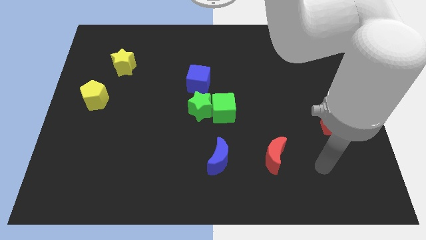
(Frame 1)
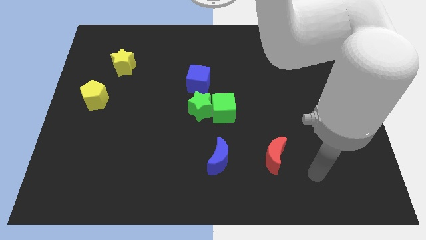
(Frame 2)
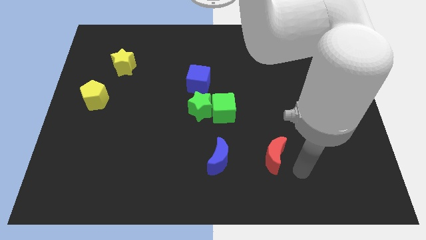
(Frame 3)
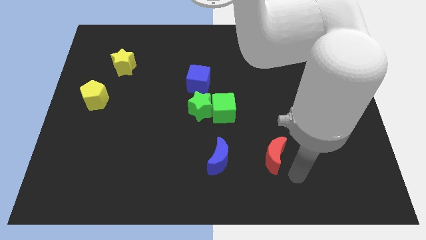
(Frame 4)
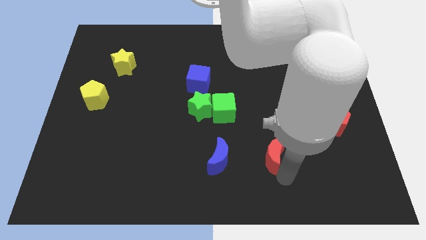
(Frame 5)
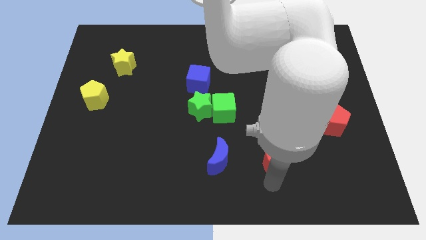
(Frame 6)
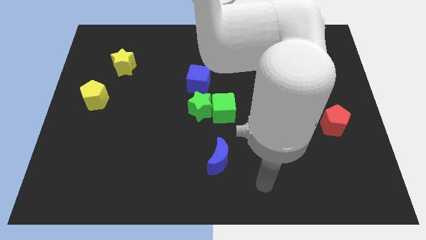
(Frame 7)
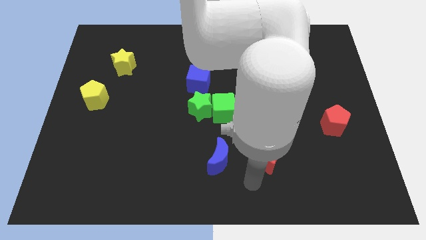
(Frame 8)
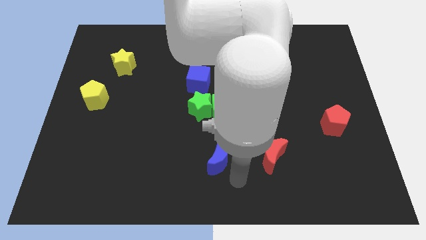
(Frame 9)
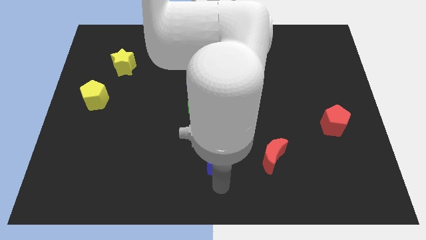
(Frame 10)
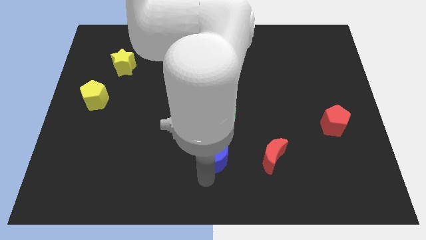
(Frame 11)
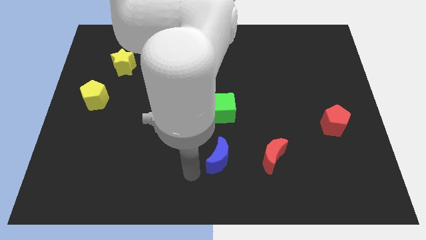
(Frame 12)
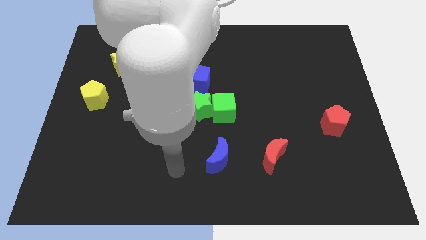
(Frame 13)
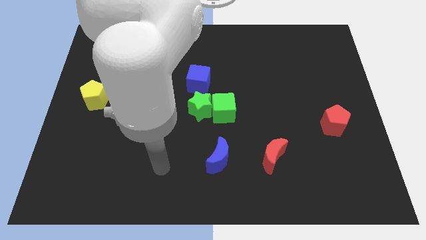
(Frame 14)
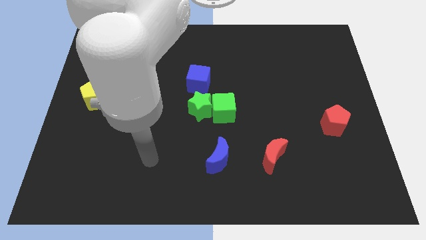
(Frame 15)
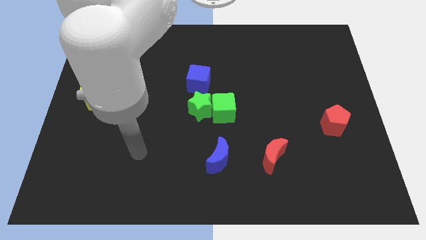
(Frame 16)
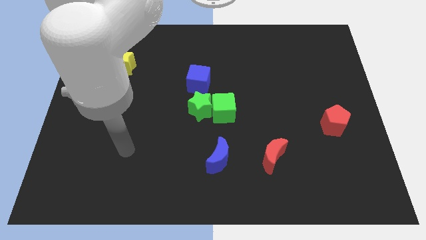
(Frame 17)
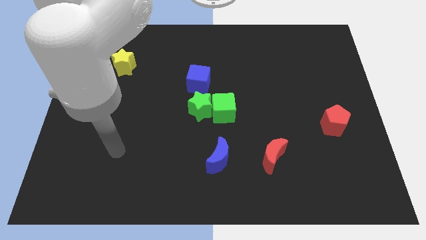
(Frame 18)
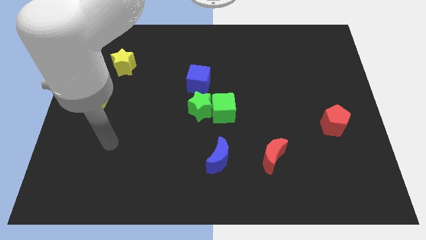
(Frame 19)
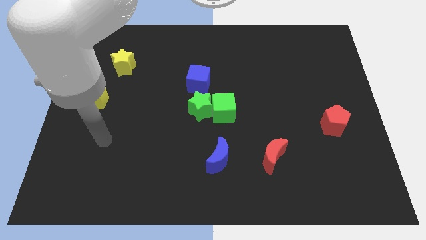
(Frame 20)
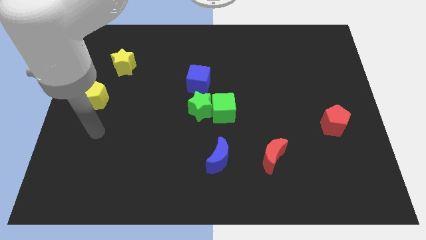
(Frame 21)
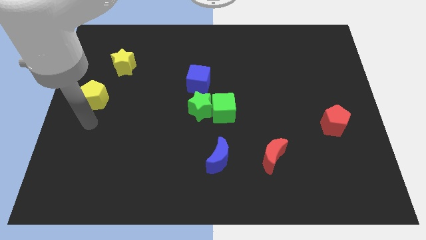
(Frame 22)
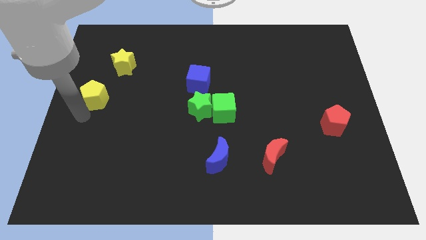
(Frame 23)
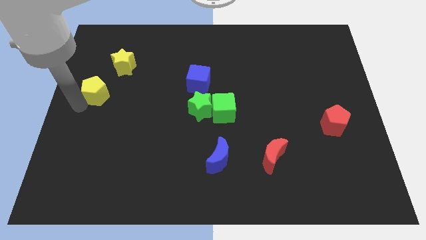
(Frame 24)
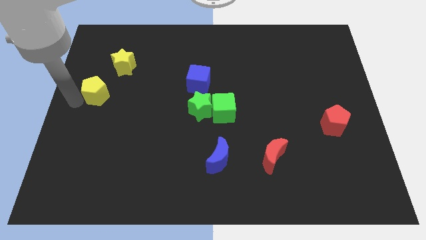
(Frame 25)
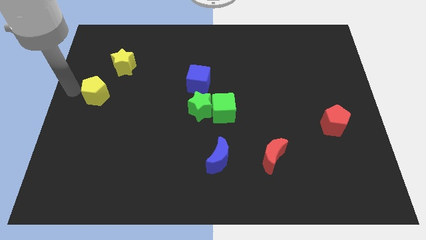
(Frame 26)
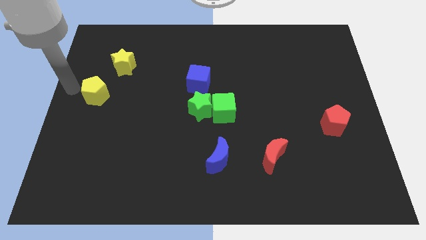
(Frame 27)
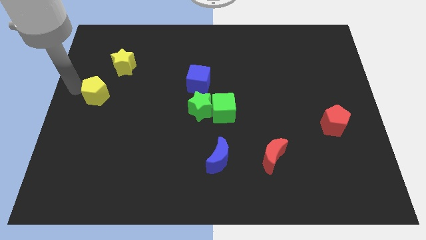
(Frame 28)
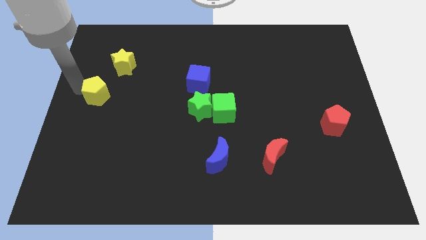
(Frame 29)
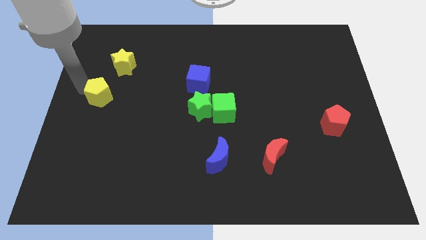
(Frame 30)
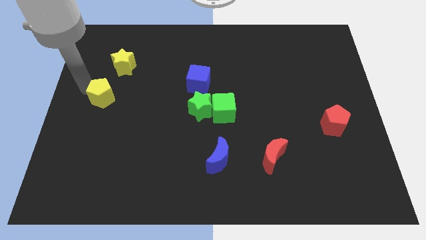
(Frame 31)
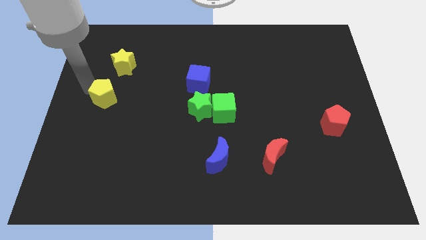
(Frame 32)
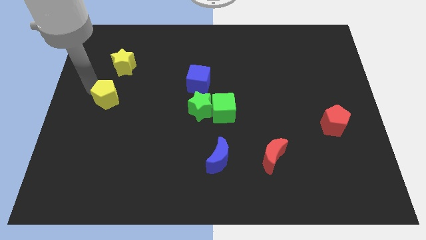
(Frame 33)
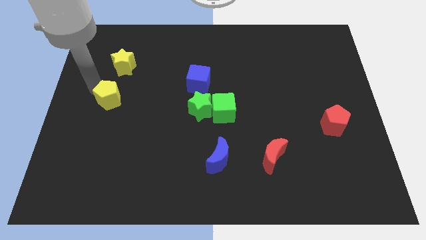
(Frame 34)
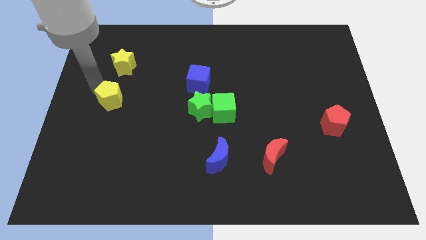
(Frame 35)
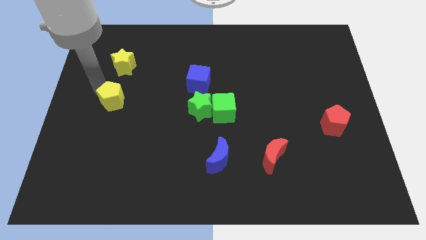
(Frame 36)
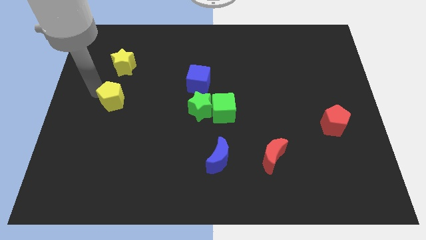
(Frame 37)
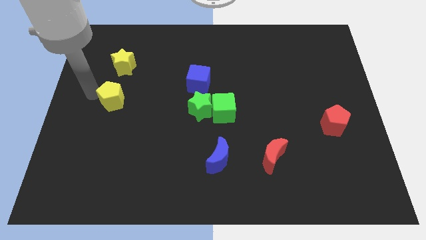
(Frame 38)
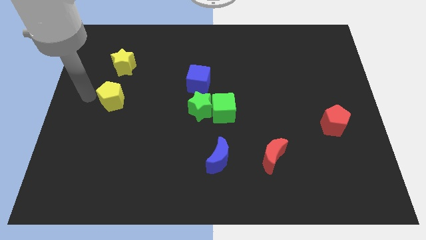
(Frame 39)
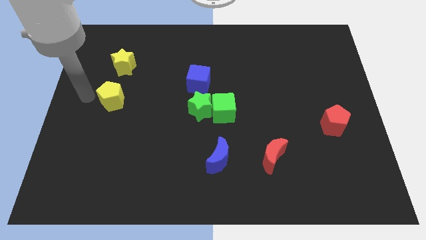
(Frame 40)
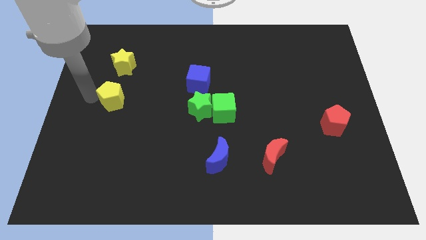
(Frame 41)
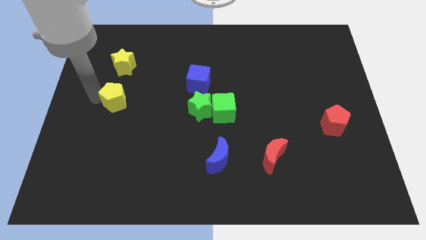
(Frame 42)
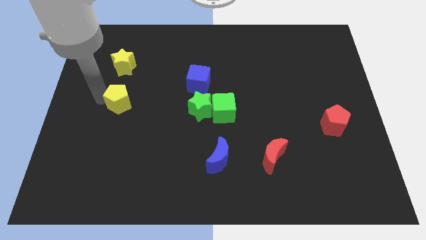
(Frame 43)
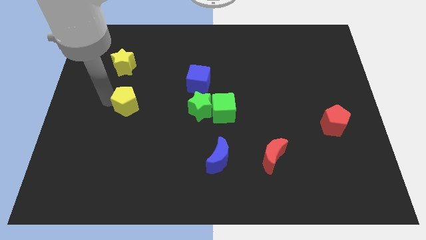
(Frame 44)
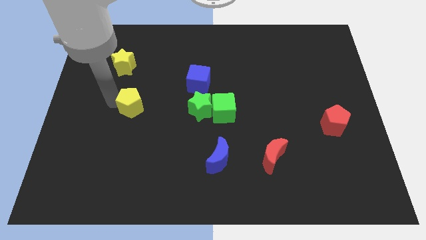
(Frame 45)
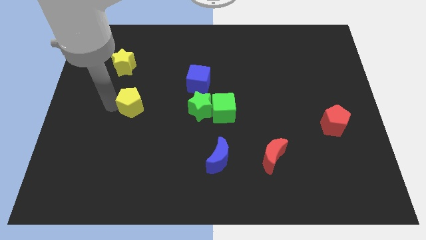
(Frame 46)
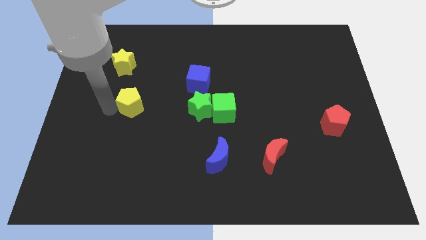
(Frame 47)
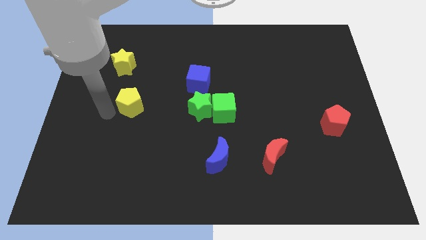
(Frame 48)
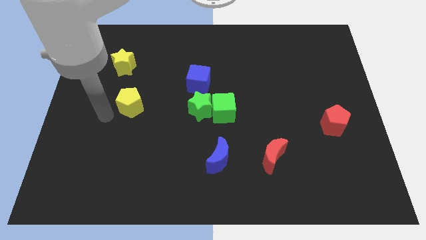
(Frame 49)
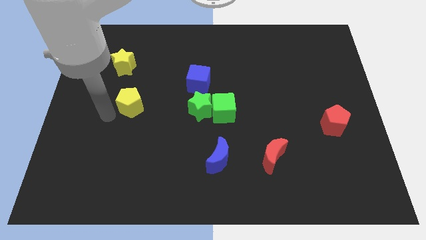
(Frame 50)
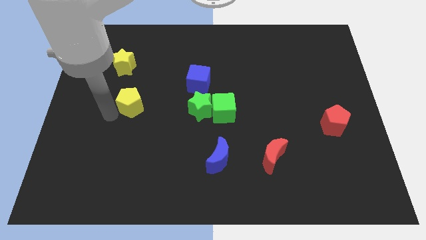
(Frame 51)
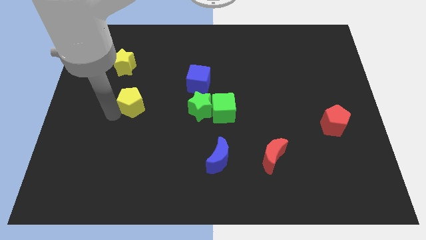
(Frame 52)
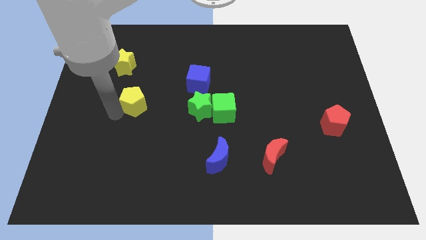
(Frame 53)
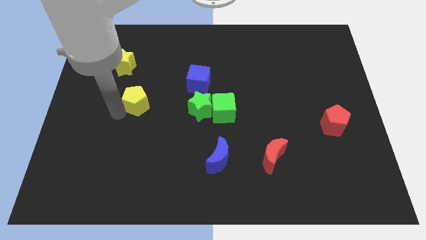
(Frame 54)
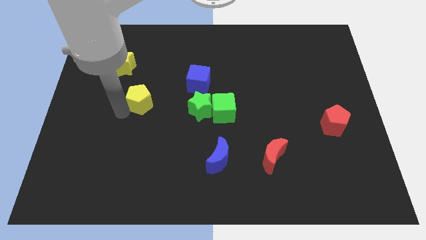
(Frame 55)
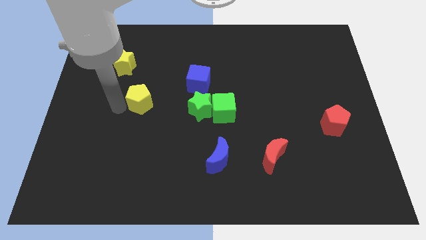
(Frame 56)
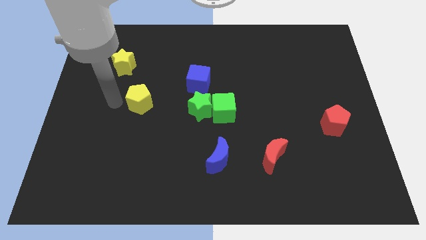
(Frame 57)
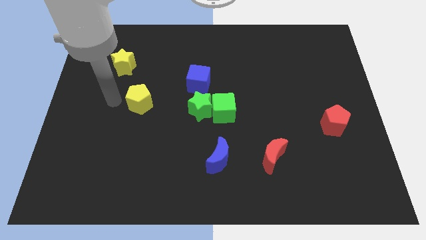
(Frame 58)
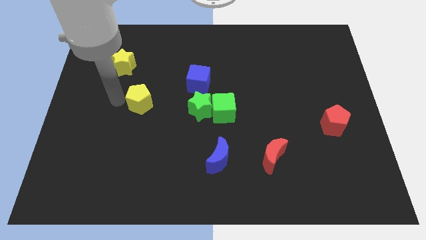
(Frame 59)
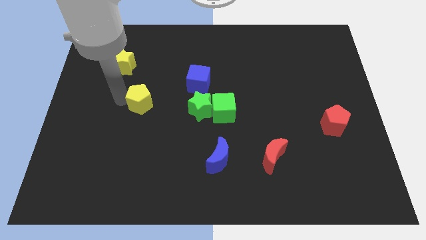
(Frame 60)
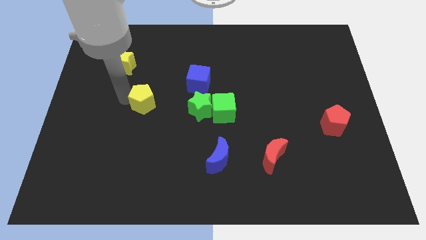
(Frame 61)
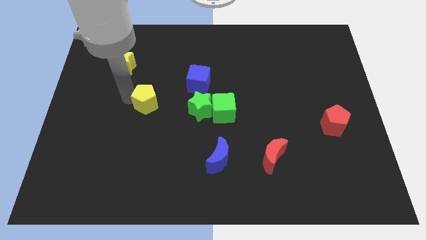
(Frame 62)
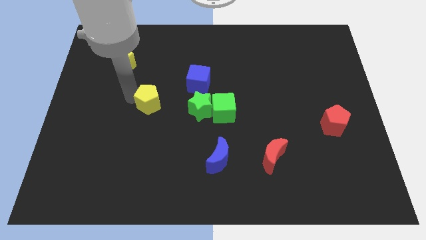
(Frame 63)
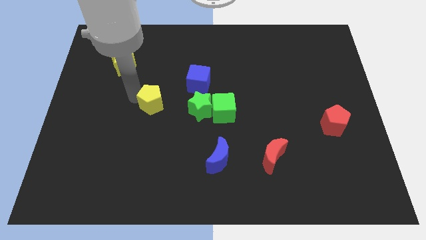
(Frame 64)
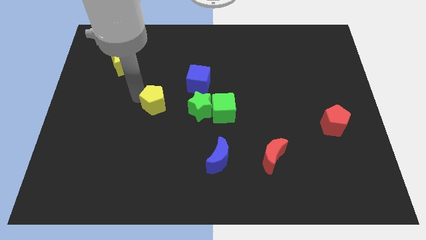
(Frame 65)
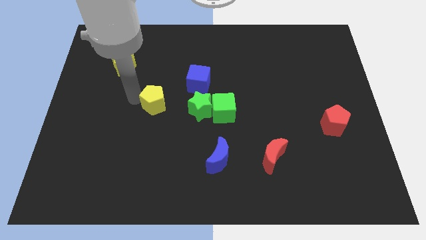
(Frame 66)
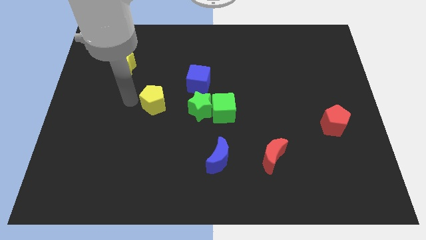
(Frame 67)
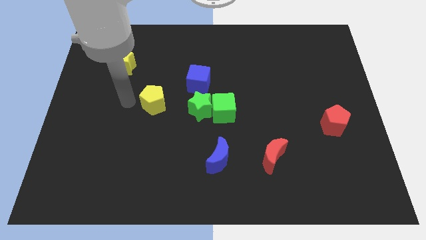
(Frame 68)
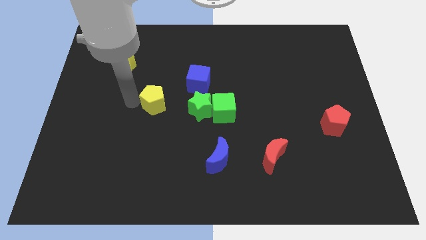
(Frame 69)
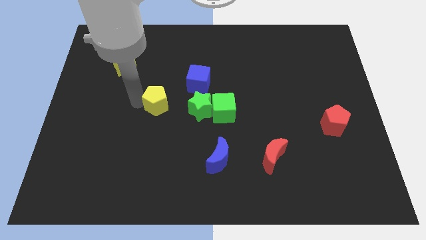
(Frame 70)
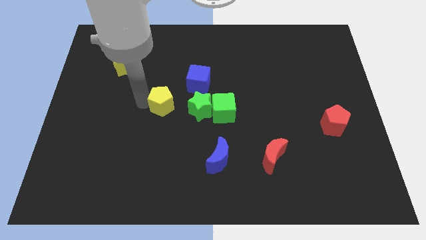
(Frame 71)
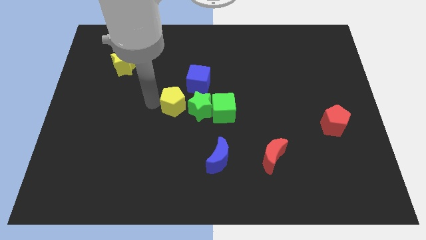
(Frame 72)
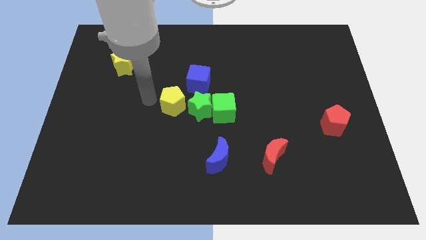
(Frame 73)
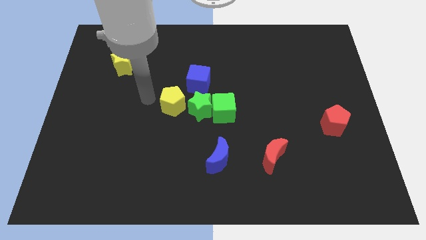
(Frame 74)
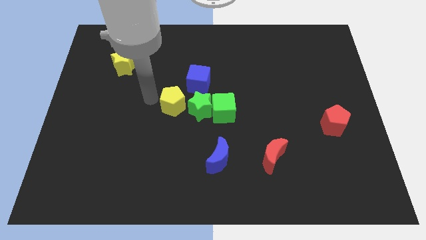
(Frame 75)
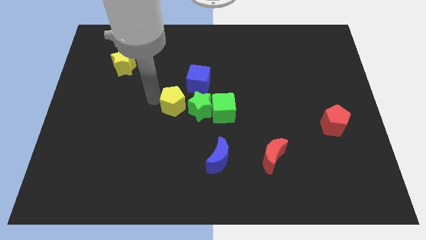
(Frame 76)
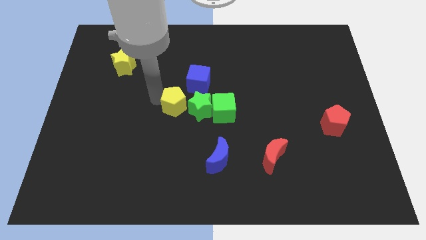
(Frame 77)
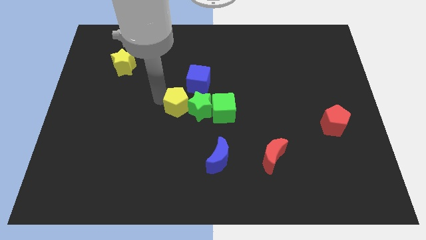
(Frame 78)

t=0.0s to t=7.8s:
slide the yellow pentagon close to the green star
